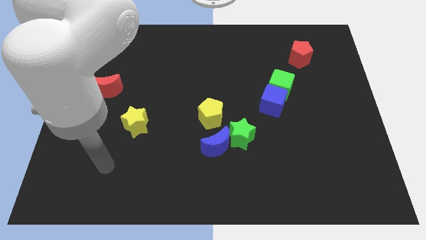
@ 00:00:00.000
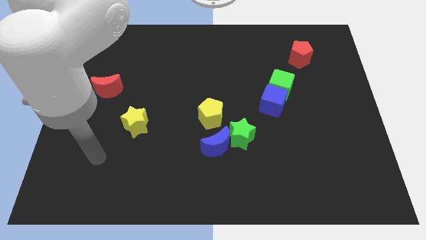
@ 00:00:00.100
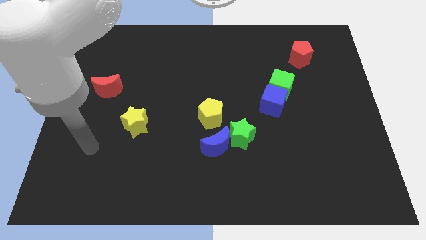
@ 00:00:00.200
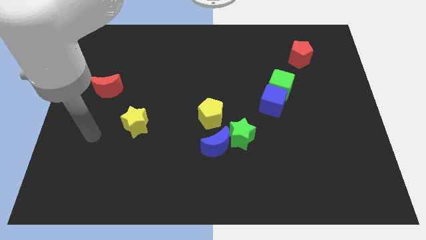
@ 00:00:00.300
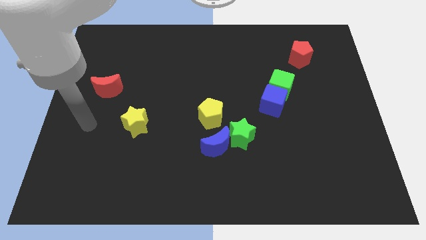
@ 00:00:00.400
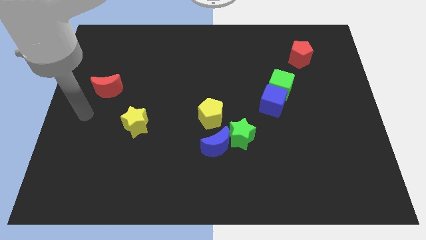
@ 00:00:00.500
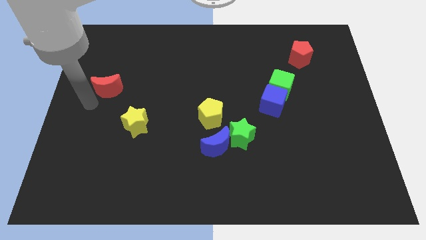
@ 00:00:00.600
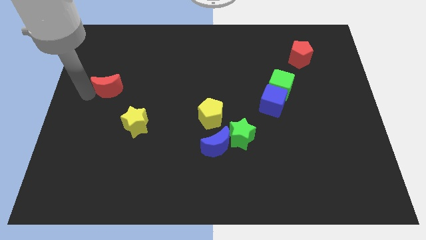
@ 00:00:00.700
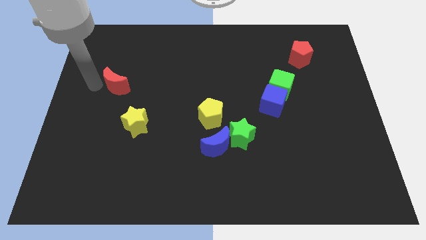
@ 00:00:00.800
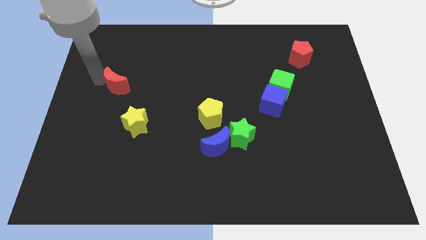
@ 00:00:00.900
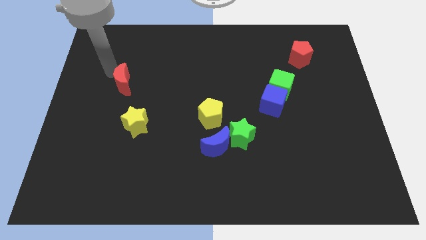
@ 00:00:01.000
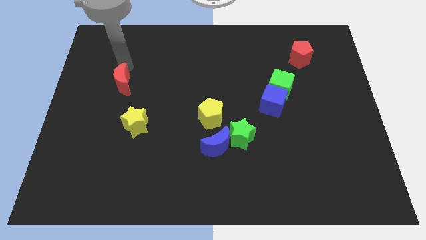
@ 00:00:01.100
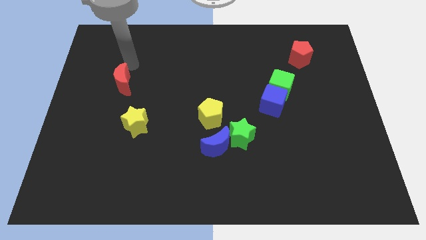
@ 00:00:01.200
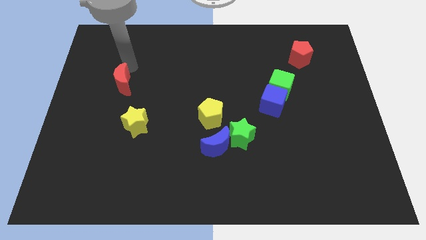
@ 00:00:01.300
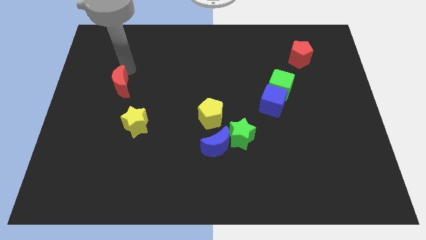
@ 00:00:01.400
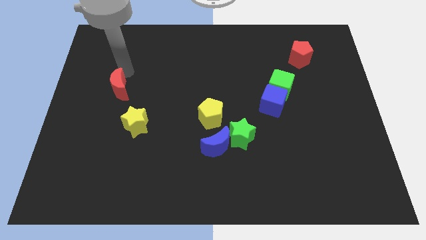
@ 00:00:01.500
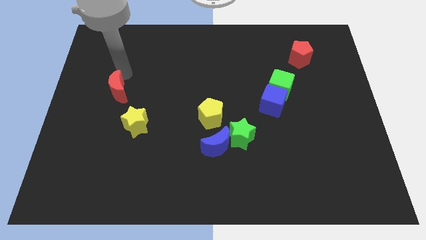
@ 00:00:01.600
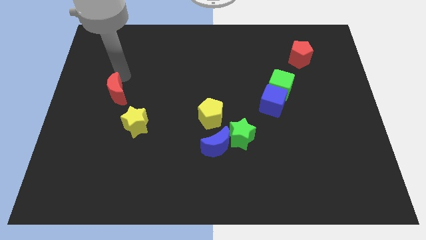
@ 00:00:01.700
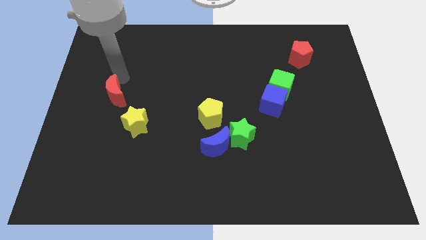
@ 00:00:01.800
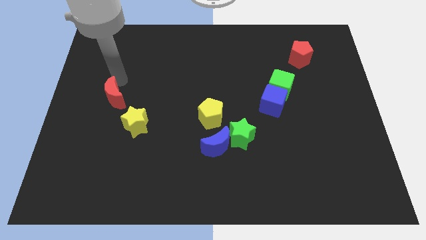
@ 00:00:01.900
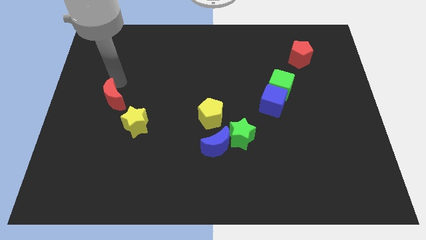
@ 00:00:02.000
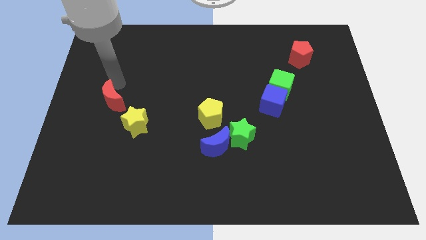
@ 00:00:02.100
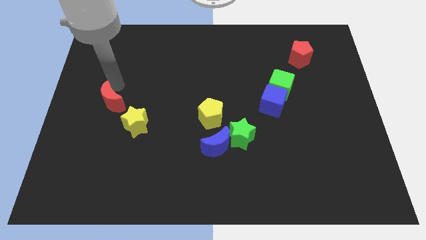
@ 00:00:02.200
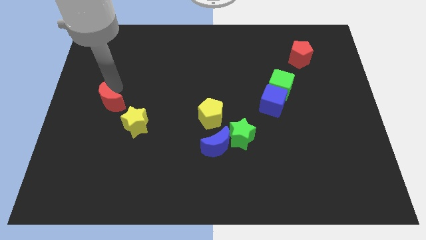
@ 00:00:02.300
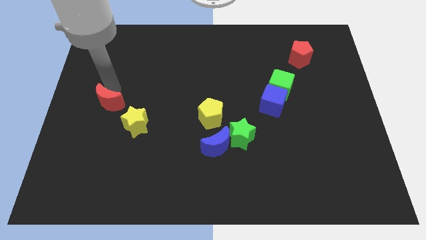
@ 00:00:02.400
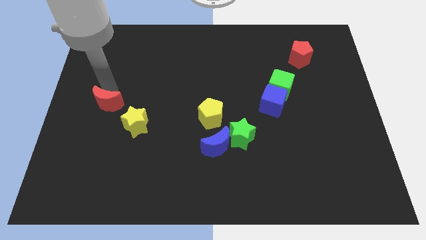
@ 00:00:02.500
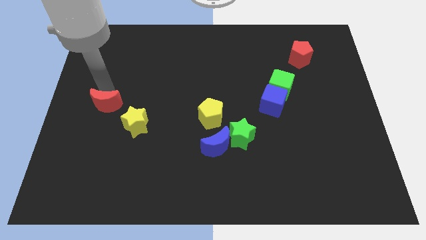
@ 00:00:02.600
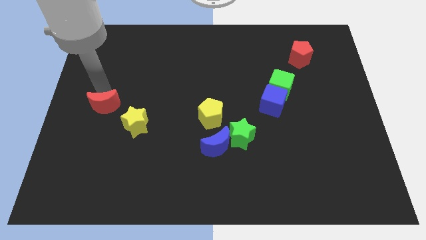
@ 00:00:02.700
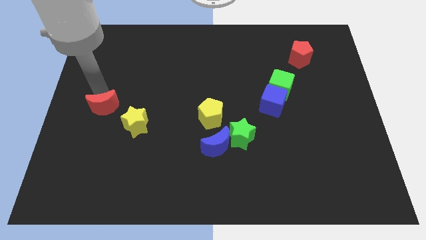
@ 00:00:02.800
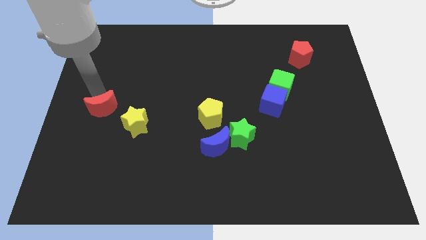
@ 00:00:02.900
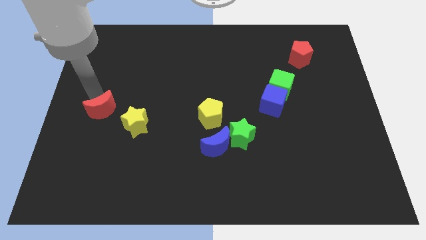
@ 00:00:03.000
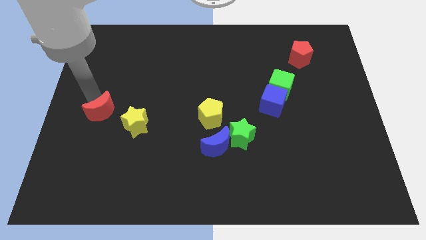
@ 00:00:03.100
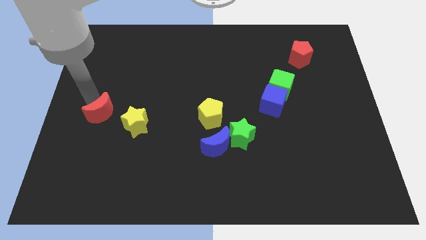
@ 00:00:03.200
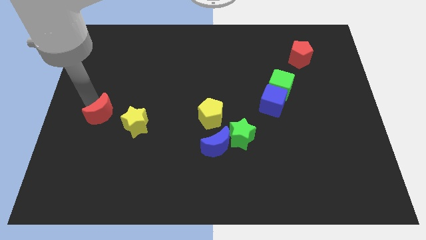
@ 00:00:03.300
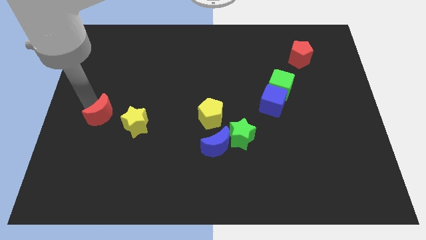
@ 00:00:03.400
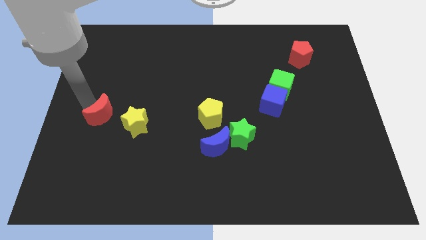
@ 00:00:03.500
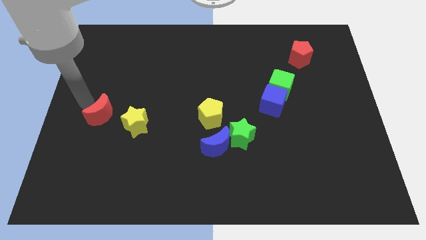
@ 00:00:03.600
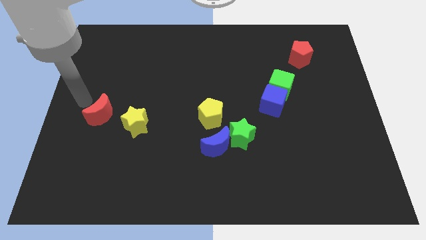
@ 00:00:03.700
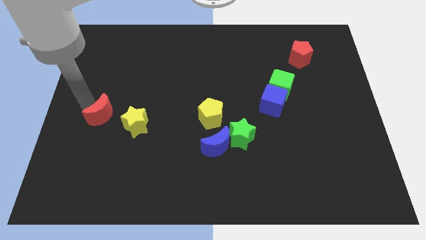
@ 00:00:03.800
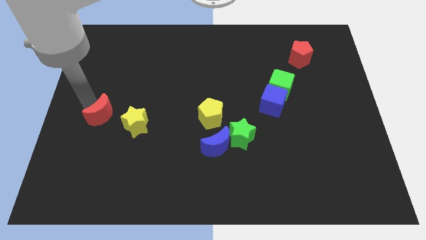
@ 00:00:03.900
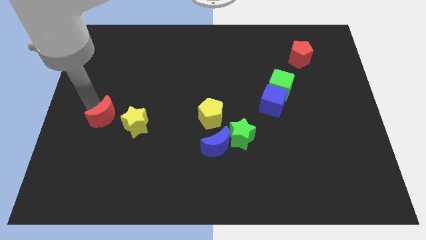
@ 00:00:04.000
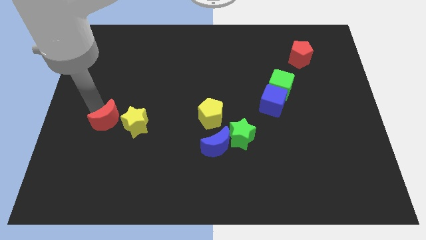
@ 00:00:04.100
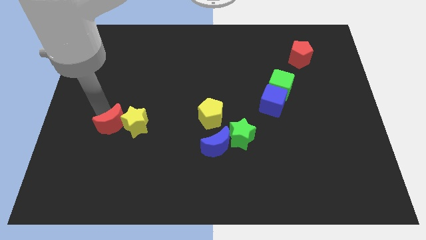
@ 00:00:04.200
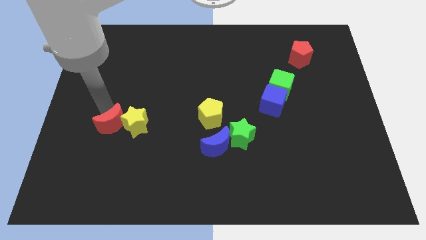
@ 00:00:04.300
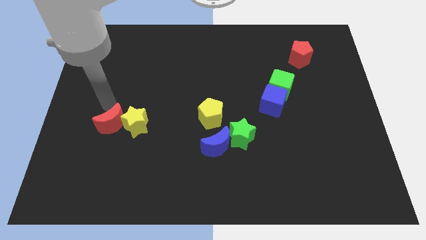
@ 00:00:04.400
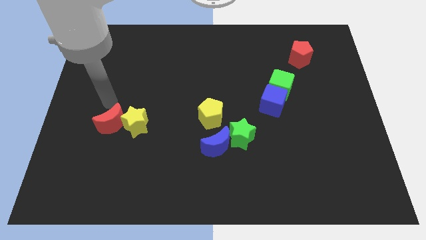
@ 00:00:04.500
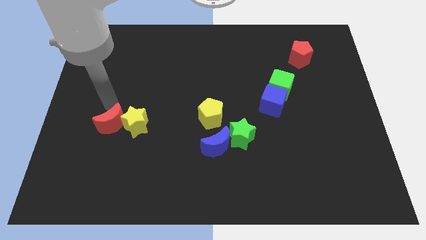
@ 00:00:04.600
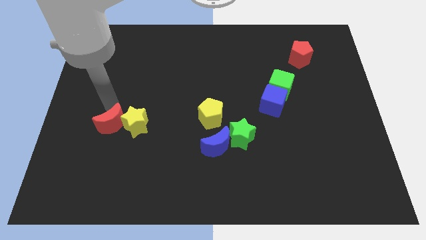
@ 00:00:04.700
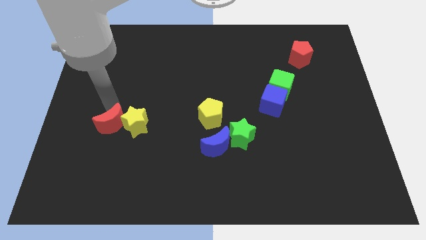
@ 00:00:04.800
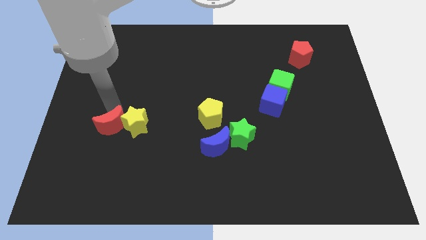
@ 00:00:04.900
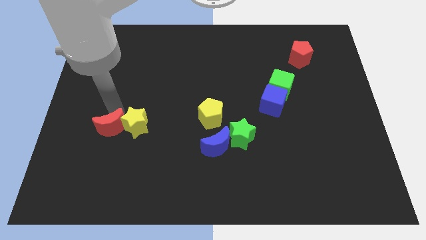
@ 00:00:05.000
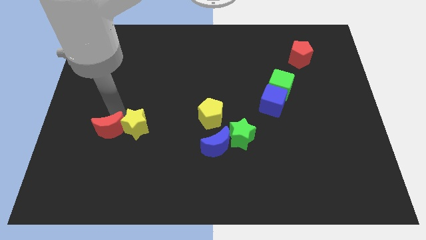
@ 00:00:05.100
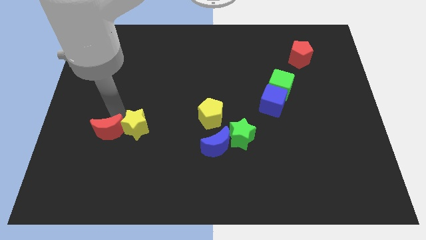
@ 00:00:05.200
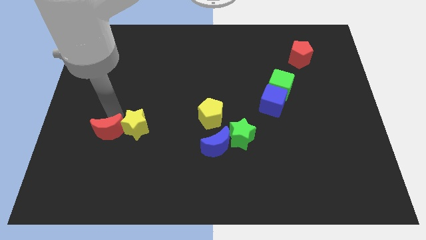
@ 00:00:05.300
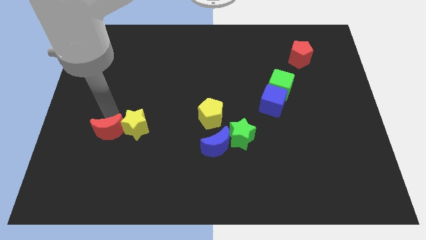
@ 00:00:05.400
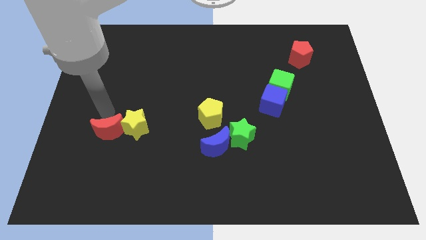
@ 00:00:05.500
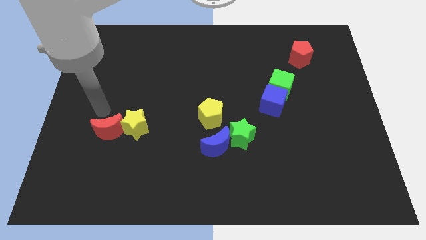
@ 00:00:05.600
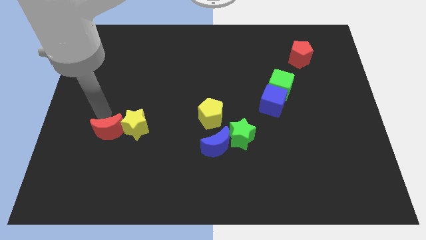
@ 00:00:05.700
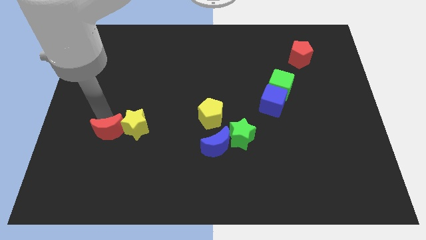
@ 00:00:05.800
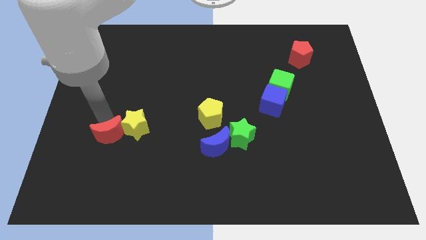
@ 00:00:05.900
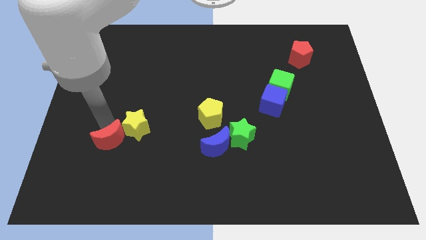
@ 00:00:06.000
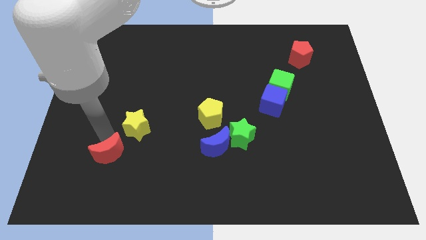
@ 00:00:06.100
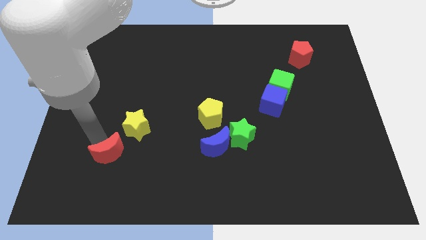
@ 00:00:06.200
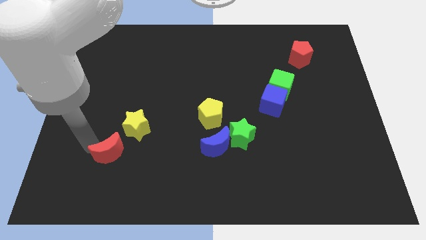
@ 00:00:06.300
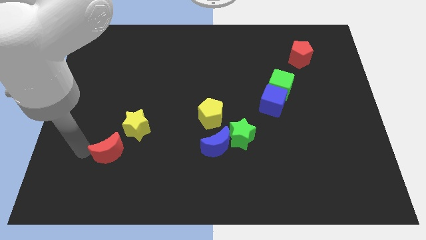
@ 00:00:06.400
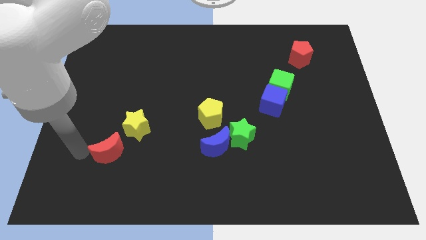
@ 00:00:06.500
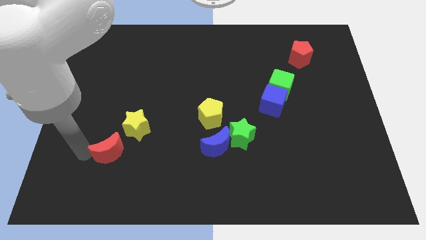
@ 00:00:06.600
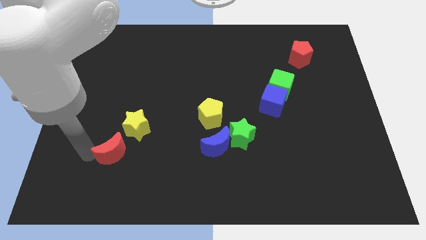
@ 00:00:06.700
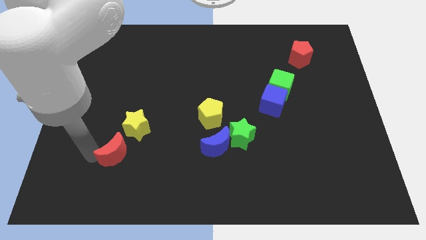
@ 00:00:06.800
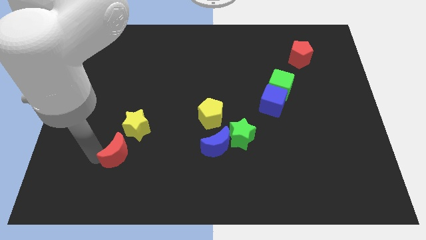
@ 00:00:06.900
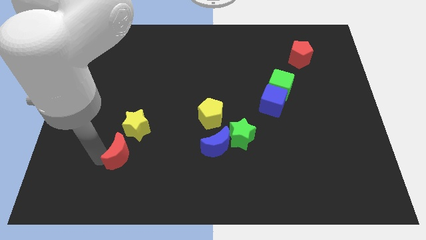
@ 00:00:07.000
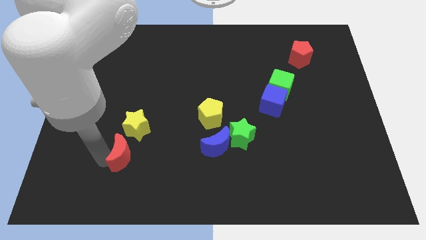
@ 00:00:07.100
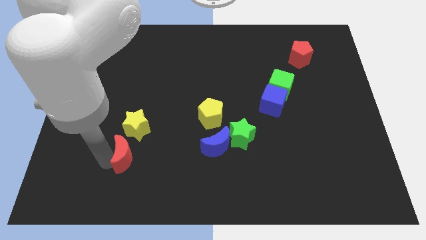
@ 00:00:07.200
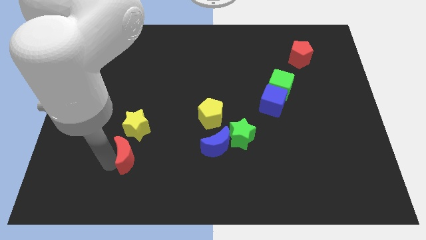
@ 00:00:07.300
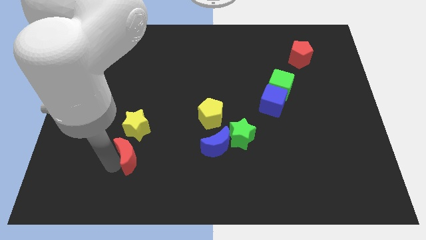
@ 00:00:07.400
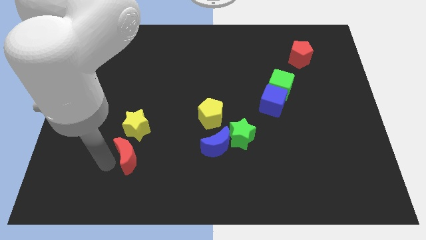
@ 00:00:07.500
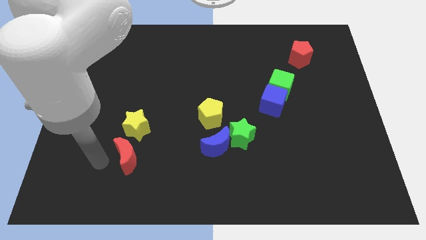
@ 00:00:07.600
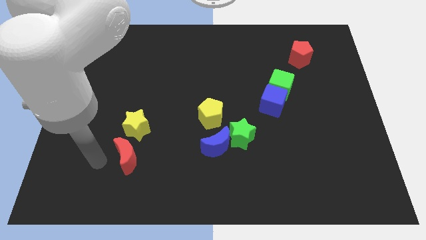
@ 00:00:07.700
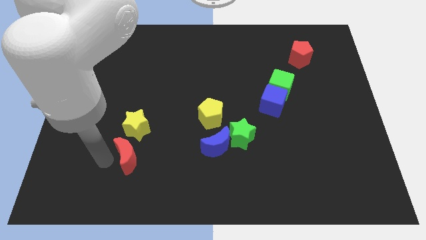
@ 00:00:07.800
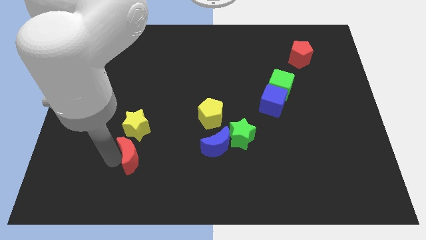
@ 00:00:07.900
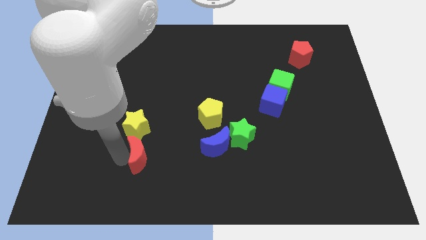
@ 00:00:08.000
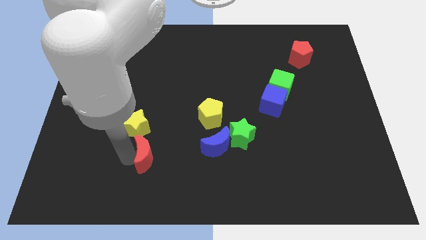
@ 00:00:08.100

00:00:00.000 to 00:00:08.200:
push the red moon down and then right
